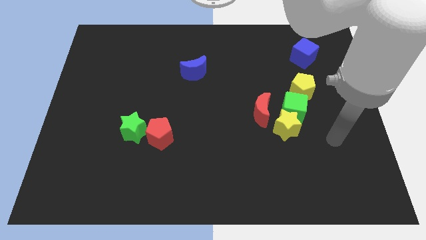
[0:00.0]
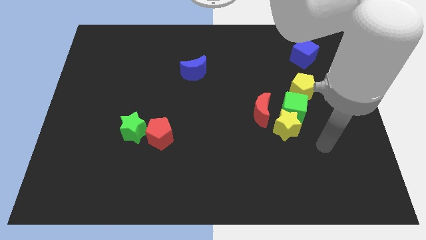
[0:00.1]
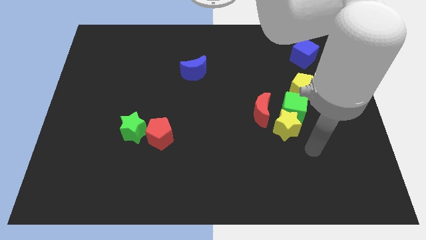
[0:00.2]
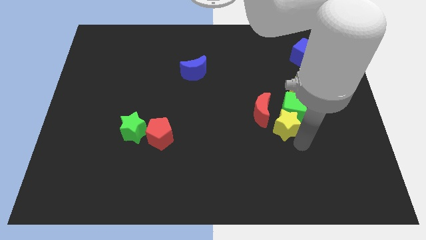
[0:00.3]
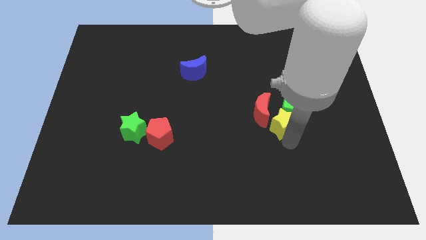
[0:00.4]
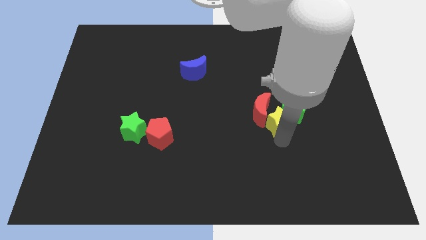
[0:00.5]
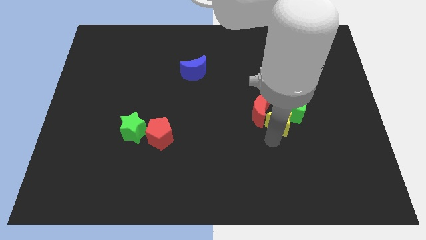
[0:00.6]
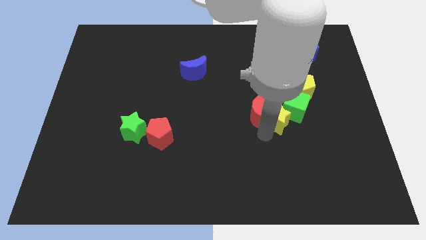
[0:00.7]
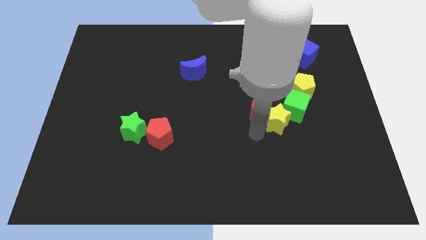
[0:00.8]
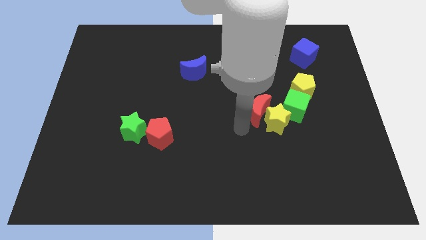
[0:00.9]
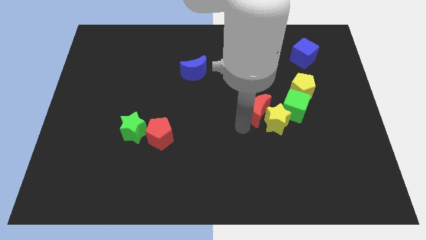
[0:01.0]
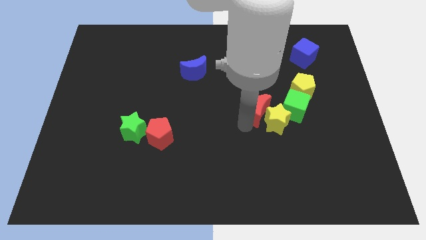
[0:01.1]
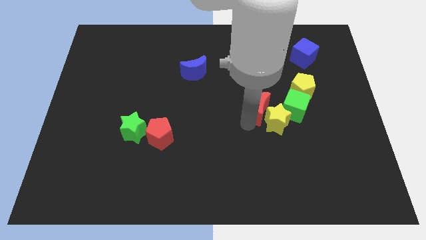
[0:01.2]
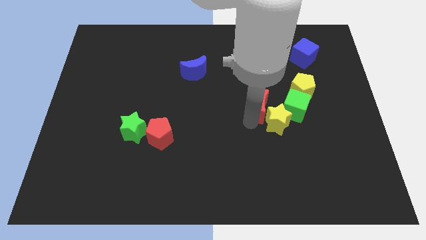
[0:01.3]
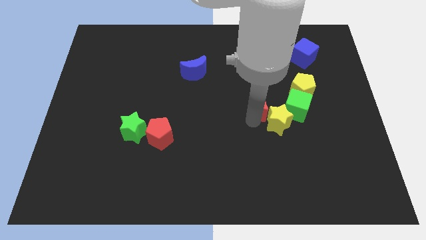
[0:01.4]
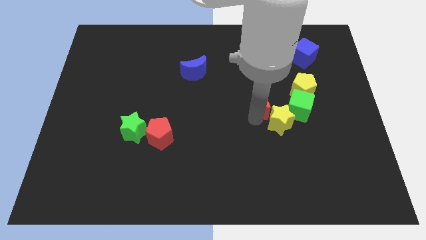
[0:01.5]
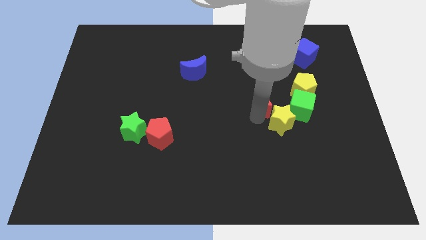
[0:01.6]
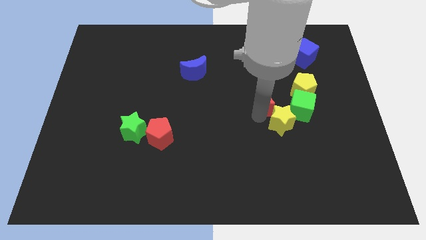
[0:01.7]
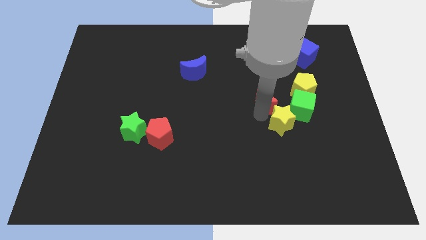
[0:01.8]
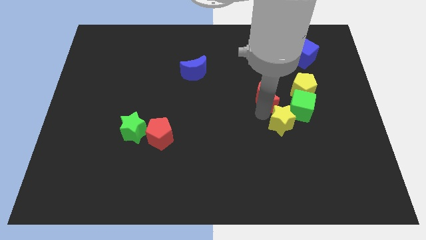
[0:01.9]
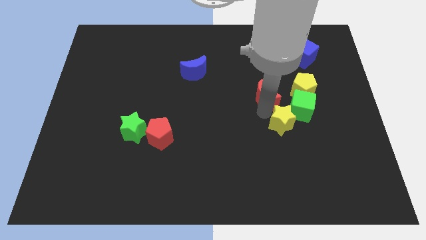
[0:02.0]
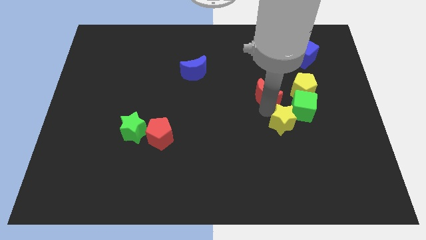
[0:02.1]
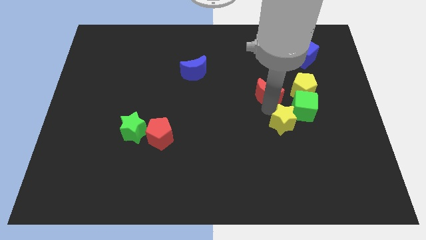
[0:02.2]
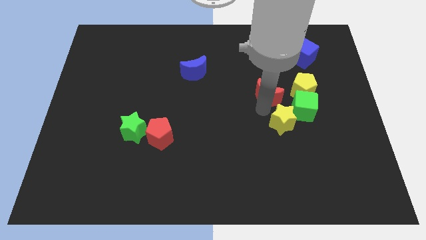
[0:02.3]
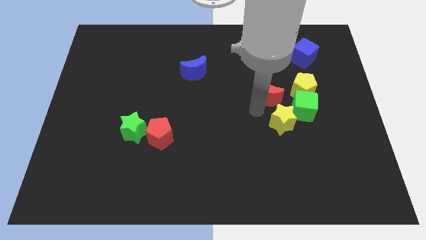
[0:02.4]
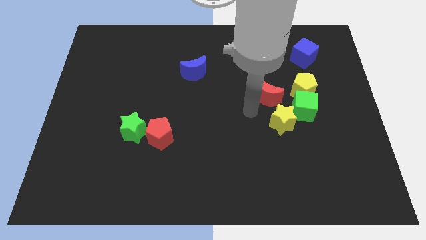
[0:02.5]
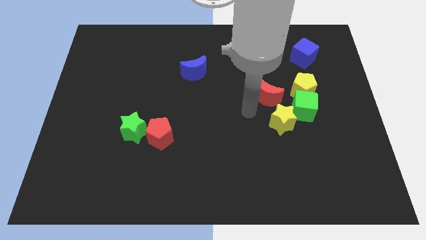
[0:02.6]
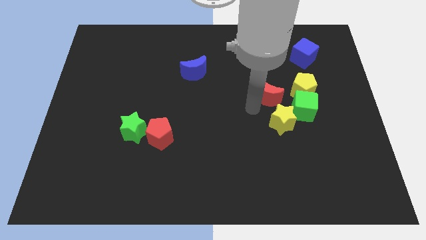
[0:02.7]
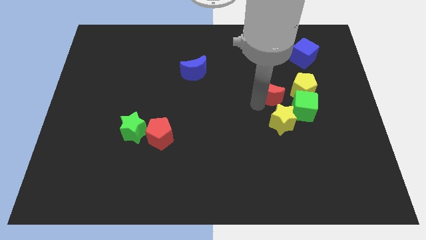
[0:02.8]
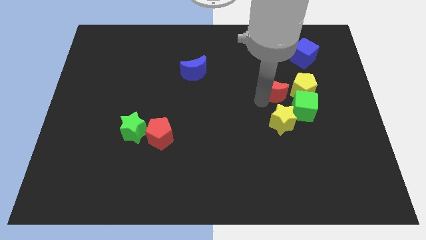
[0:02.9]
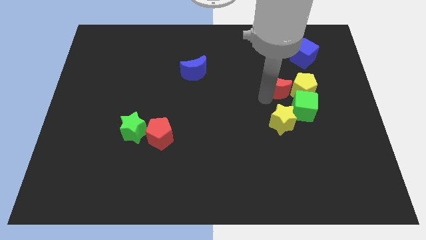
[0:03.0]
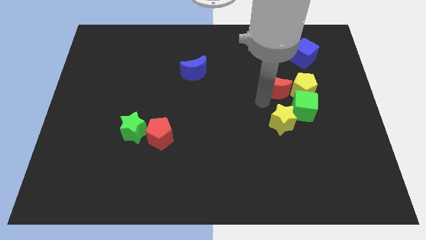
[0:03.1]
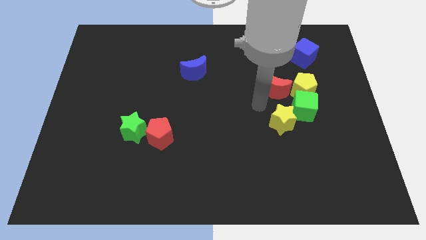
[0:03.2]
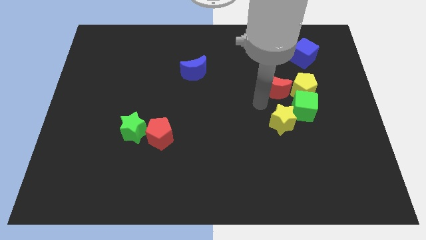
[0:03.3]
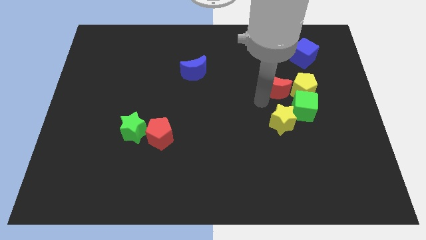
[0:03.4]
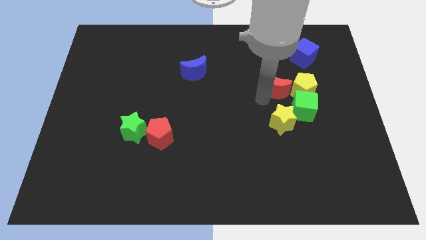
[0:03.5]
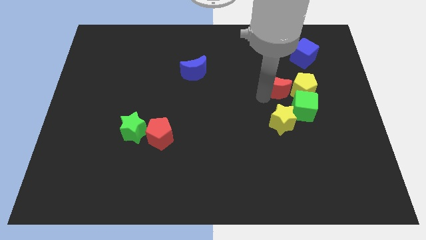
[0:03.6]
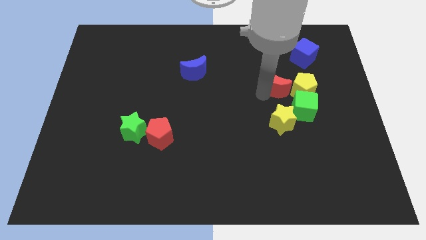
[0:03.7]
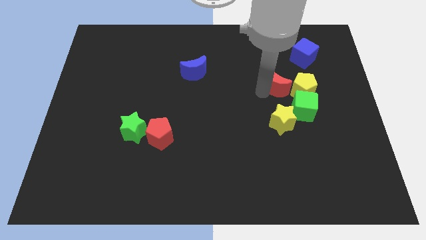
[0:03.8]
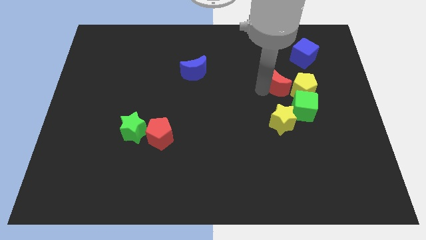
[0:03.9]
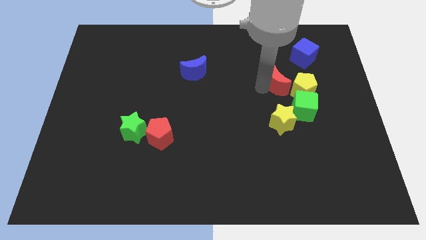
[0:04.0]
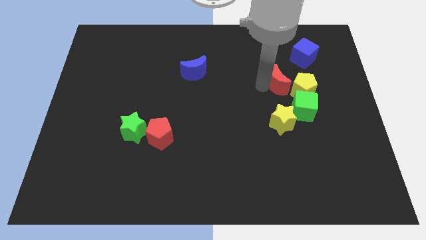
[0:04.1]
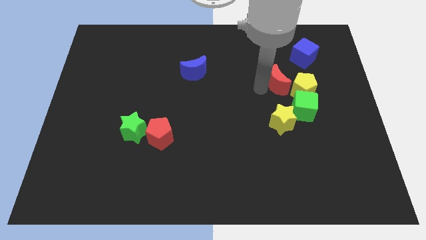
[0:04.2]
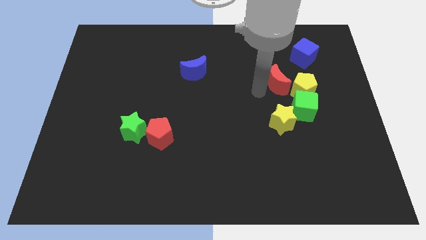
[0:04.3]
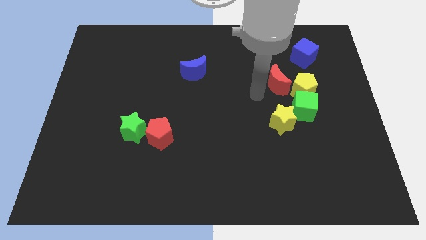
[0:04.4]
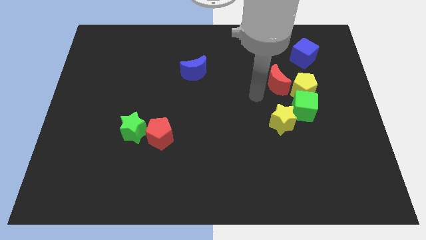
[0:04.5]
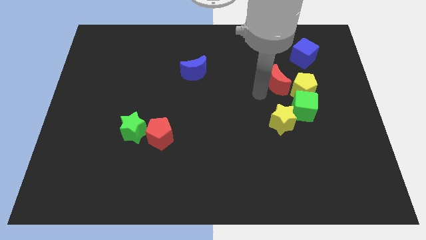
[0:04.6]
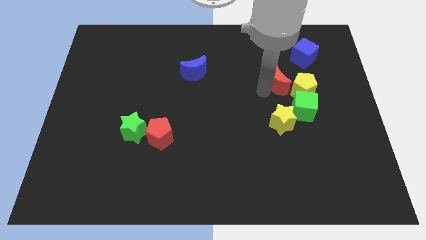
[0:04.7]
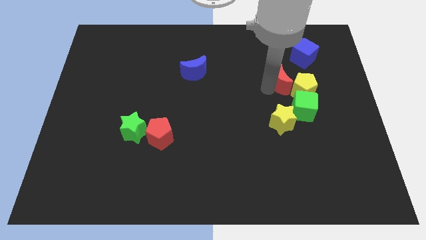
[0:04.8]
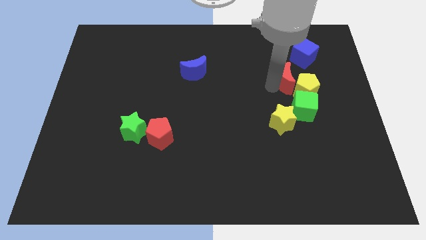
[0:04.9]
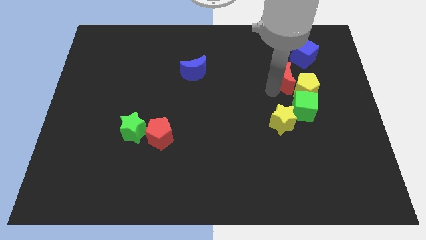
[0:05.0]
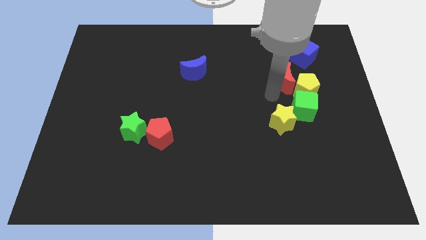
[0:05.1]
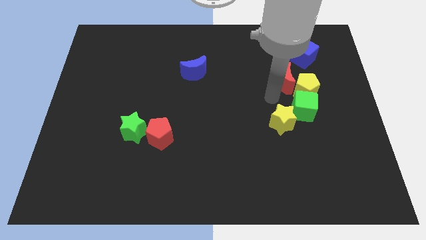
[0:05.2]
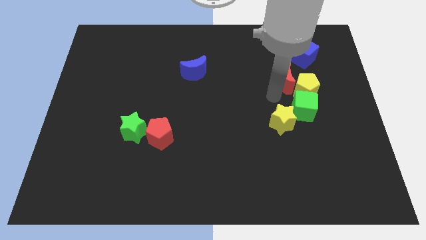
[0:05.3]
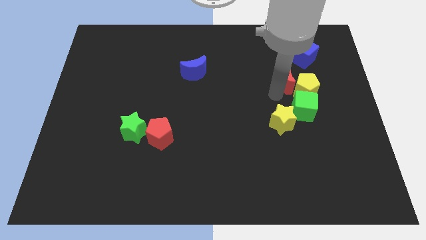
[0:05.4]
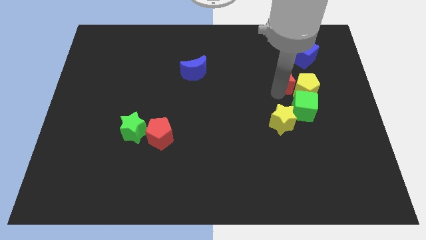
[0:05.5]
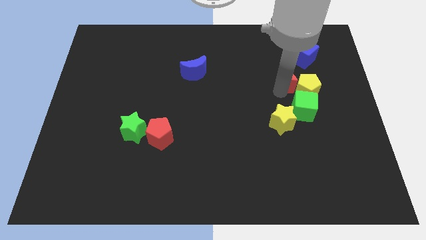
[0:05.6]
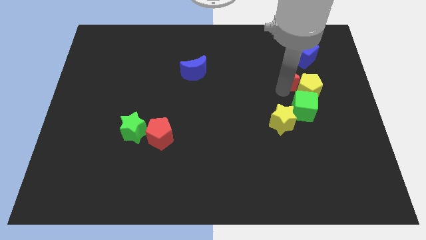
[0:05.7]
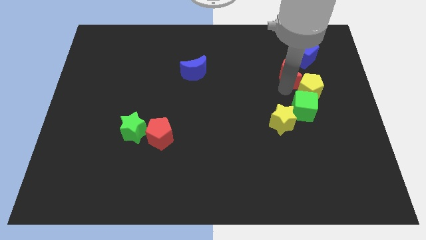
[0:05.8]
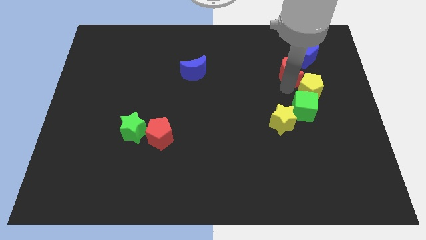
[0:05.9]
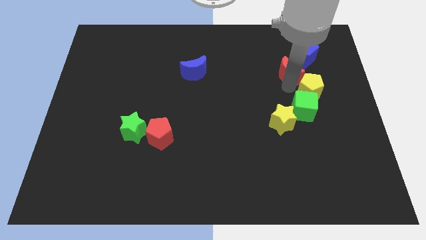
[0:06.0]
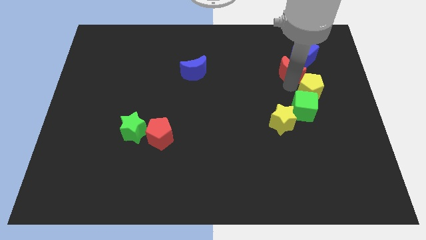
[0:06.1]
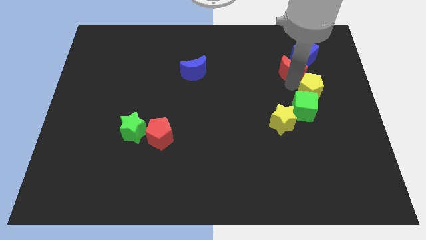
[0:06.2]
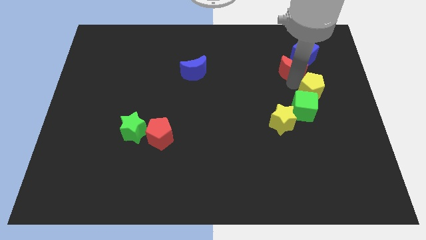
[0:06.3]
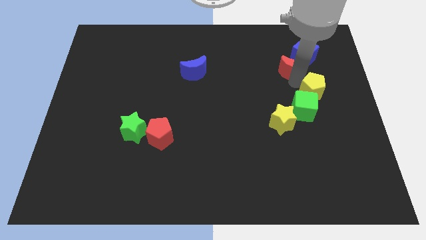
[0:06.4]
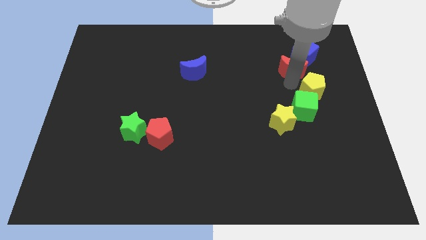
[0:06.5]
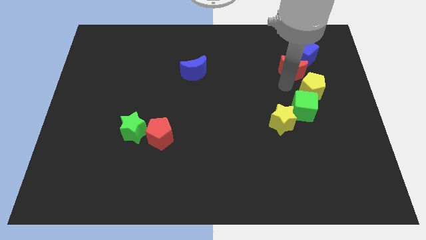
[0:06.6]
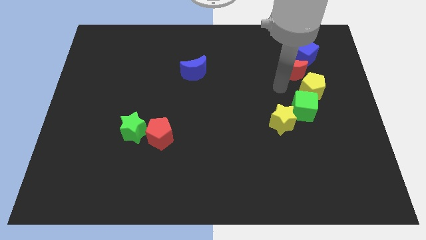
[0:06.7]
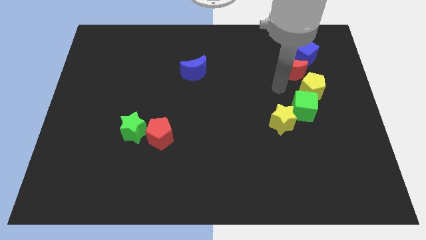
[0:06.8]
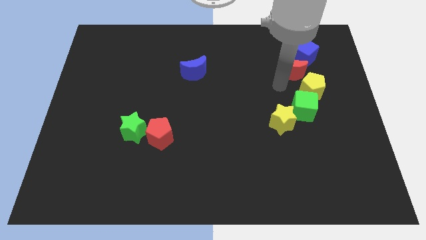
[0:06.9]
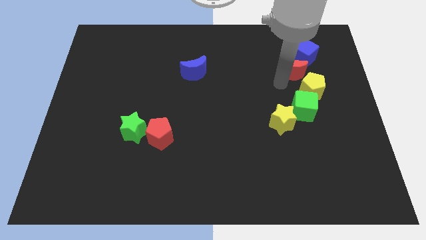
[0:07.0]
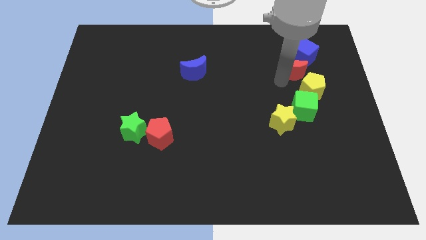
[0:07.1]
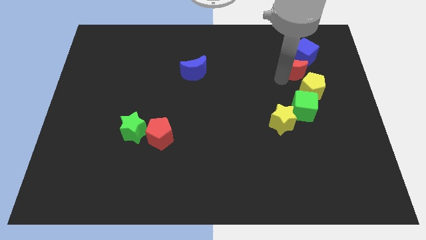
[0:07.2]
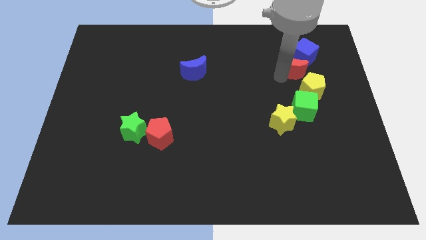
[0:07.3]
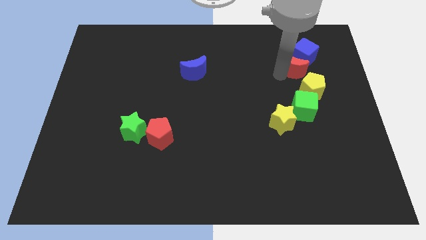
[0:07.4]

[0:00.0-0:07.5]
move the red moon to the blue cube

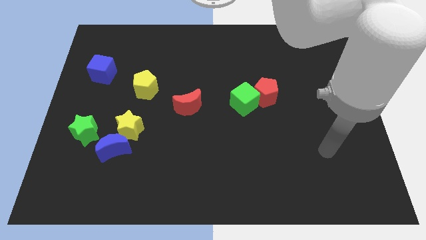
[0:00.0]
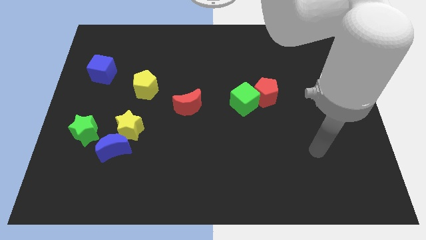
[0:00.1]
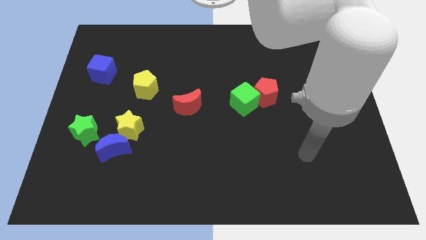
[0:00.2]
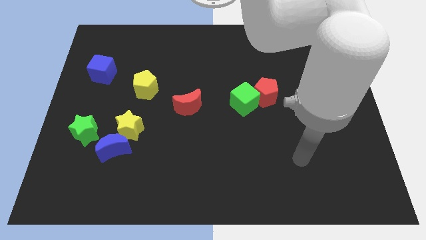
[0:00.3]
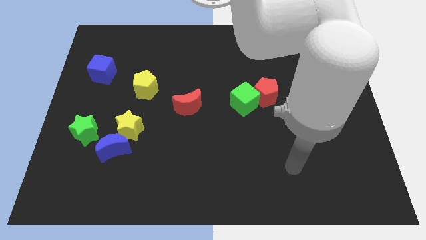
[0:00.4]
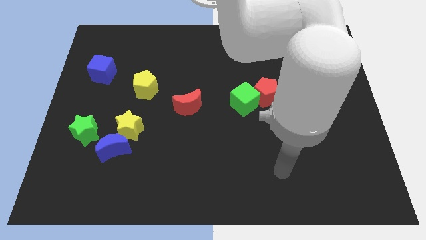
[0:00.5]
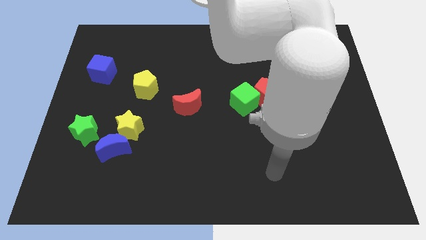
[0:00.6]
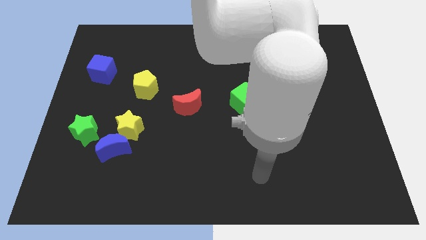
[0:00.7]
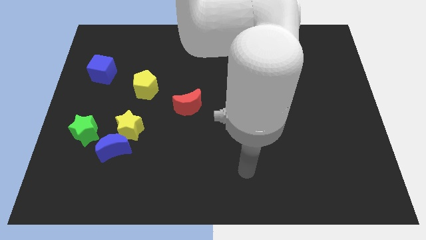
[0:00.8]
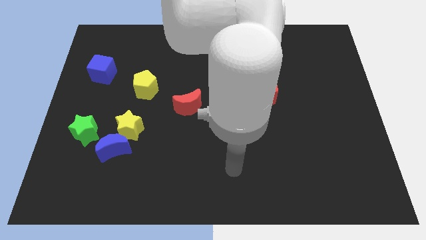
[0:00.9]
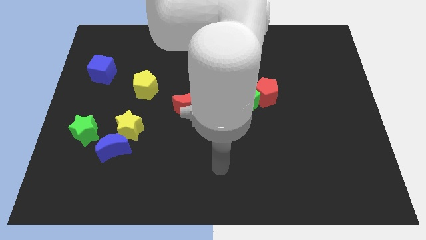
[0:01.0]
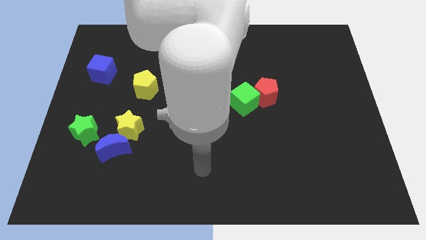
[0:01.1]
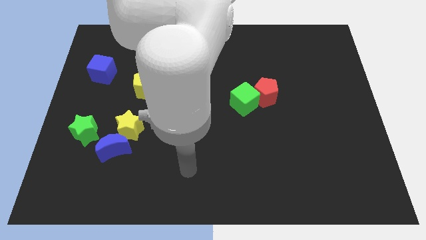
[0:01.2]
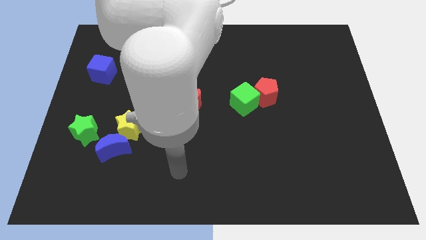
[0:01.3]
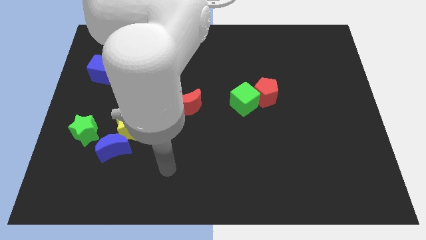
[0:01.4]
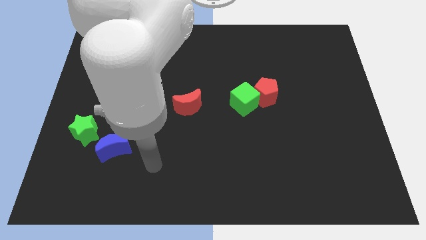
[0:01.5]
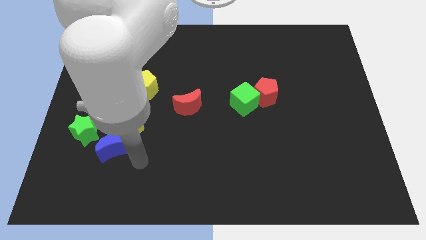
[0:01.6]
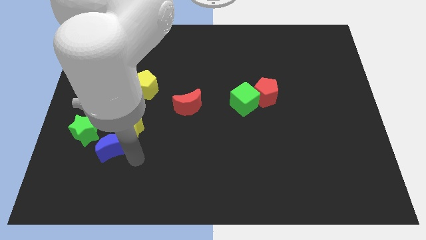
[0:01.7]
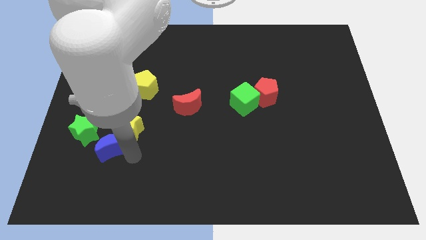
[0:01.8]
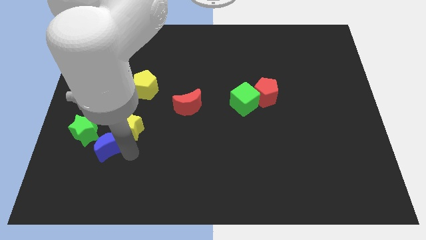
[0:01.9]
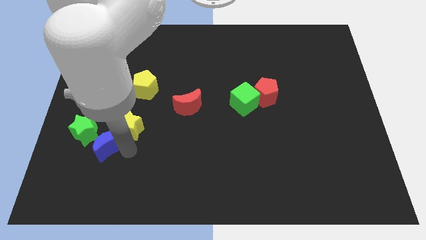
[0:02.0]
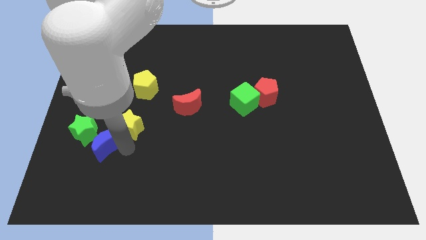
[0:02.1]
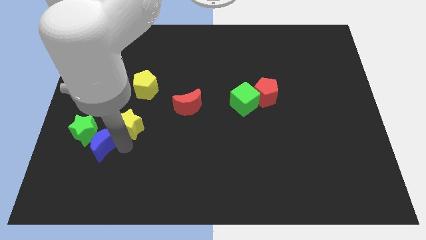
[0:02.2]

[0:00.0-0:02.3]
push the blue moon towards the green star
